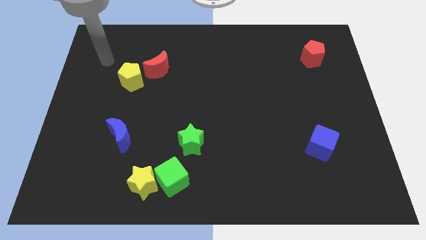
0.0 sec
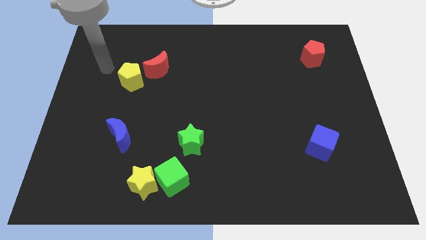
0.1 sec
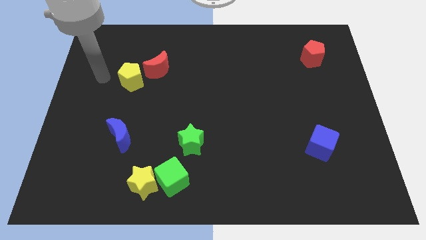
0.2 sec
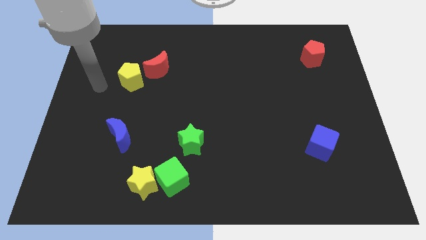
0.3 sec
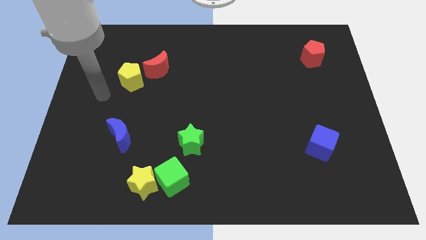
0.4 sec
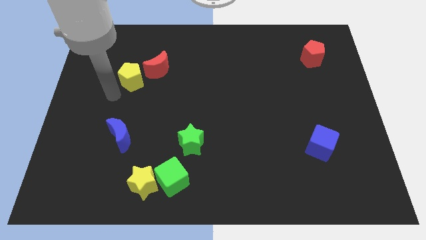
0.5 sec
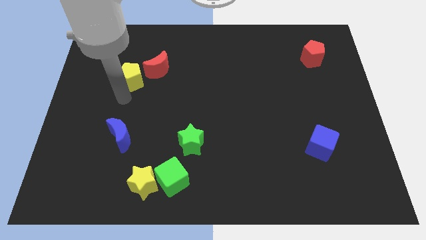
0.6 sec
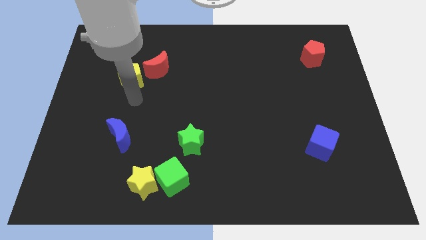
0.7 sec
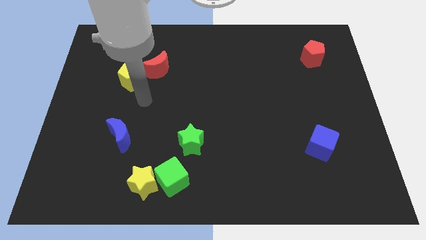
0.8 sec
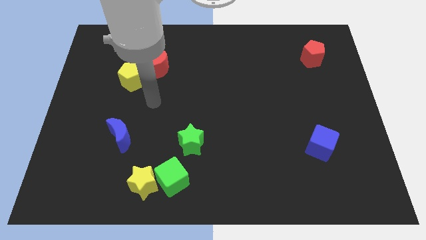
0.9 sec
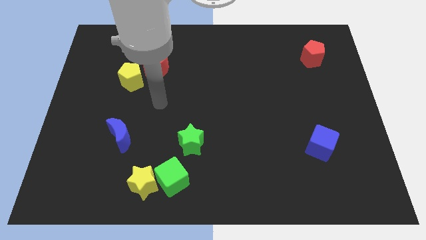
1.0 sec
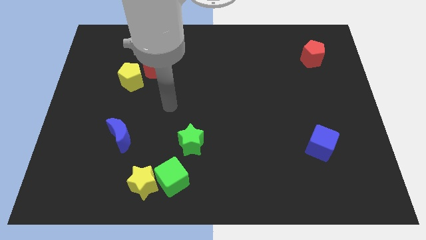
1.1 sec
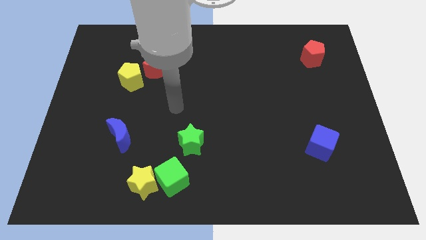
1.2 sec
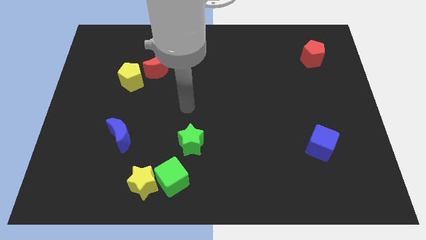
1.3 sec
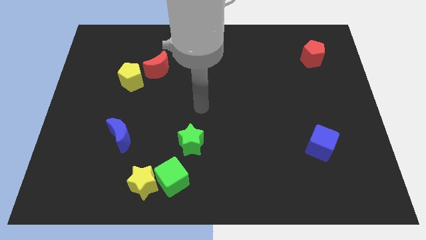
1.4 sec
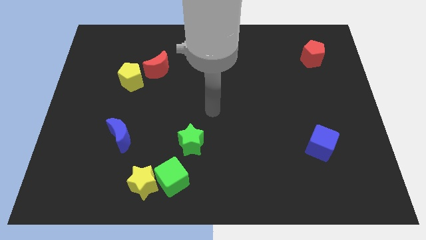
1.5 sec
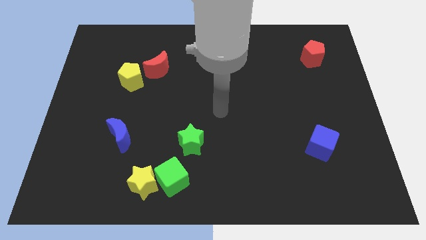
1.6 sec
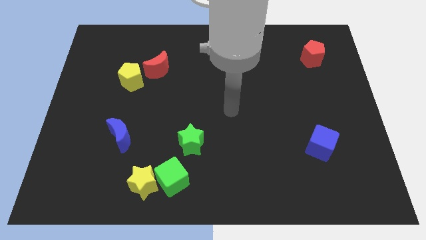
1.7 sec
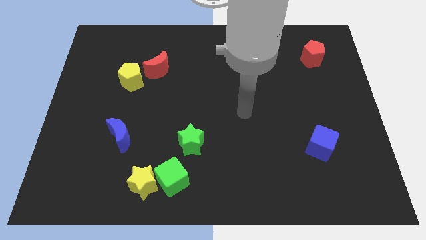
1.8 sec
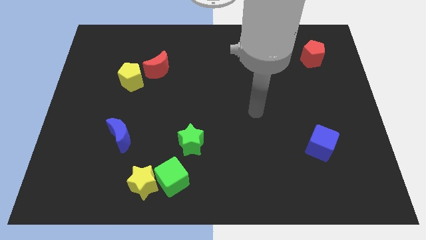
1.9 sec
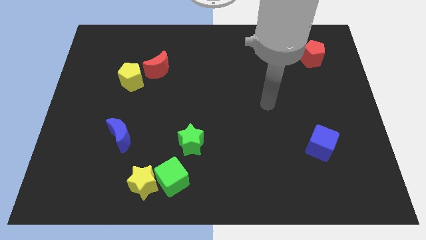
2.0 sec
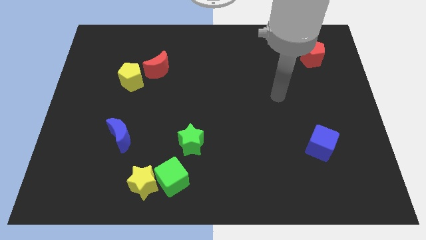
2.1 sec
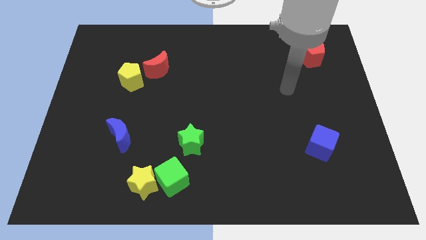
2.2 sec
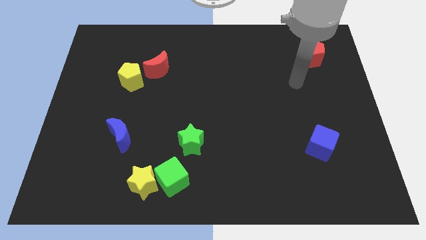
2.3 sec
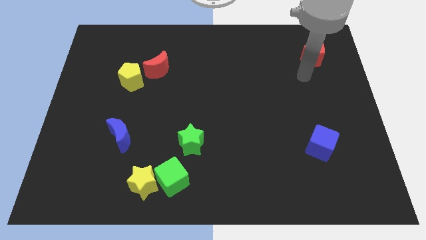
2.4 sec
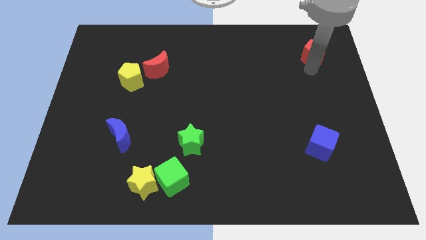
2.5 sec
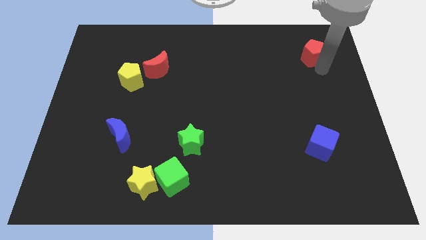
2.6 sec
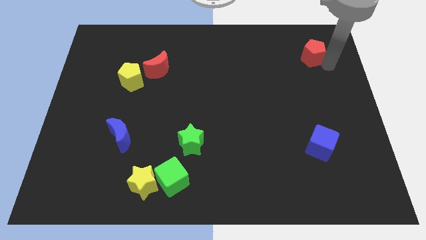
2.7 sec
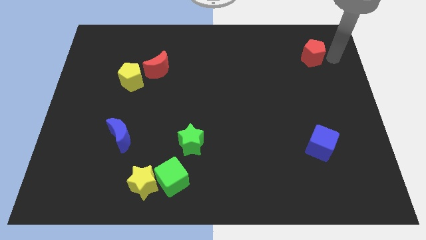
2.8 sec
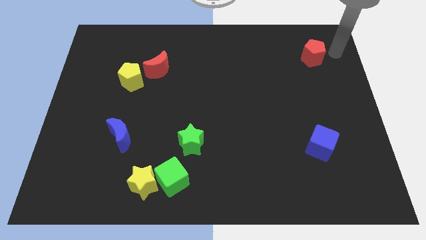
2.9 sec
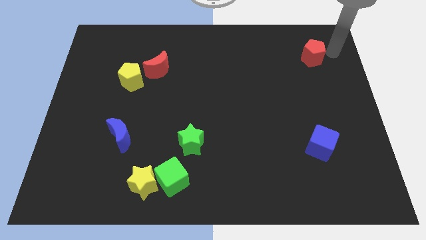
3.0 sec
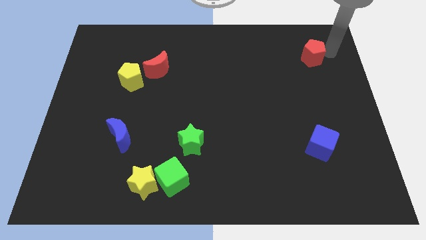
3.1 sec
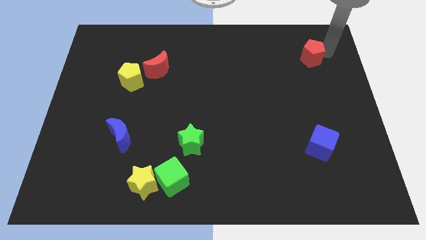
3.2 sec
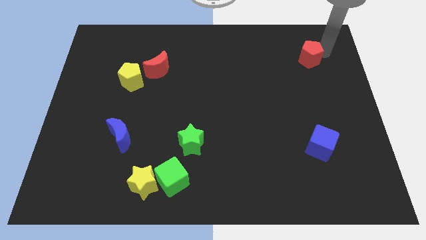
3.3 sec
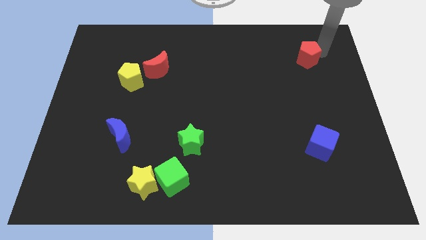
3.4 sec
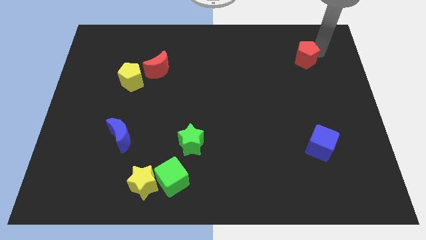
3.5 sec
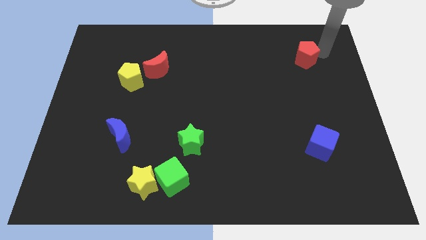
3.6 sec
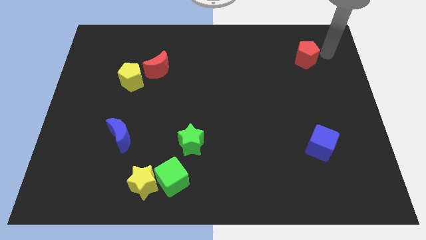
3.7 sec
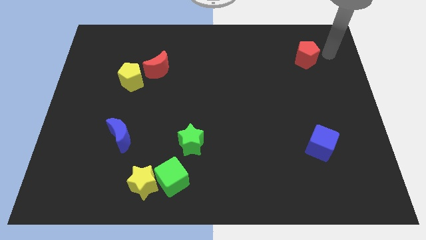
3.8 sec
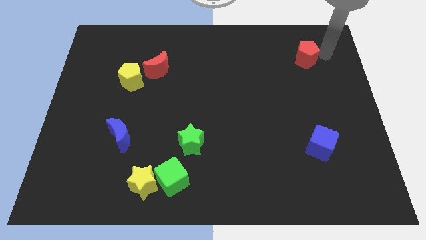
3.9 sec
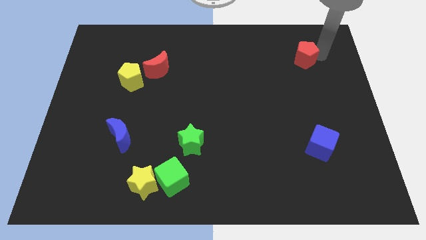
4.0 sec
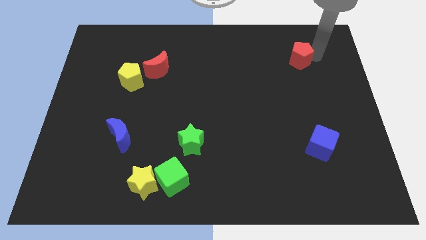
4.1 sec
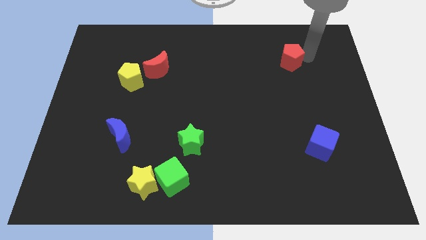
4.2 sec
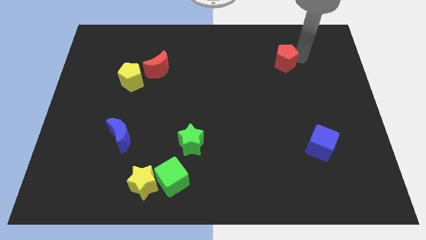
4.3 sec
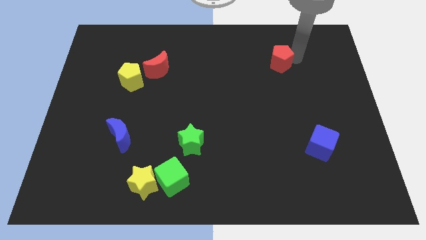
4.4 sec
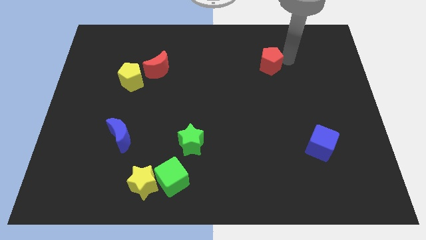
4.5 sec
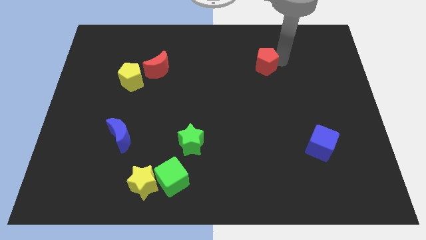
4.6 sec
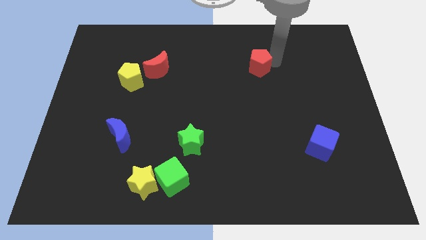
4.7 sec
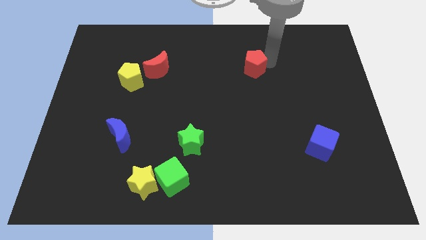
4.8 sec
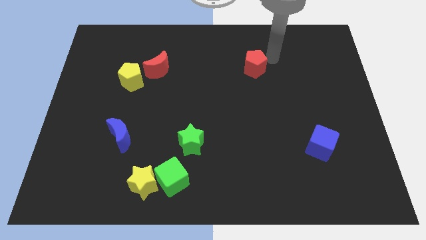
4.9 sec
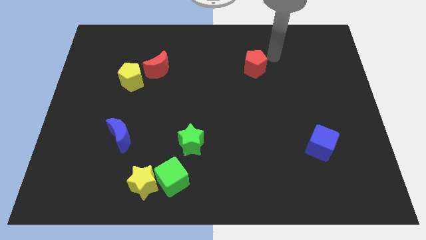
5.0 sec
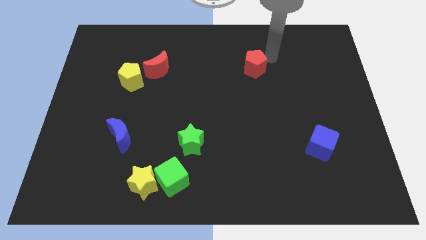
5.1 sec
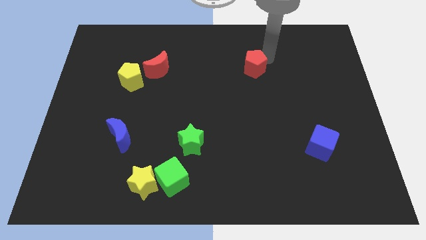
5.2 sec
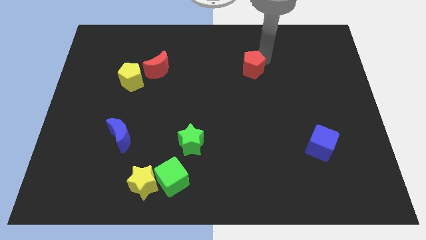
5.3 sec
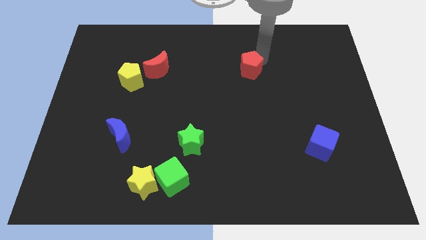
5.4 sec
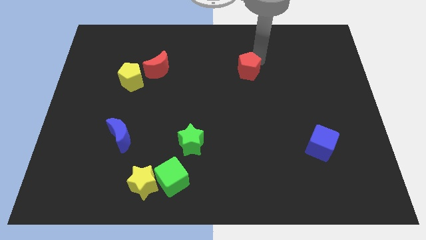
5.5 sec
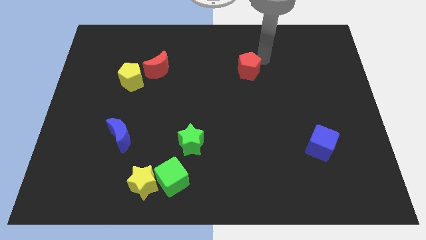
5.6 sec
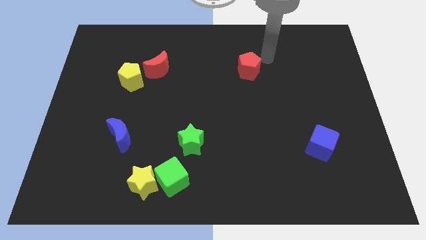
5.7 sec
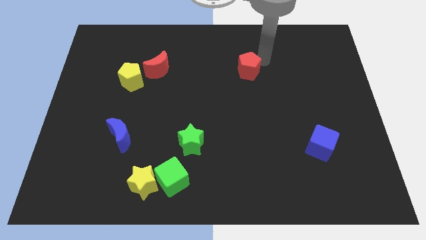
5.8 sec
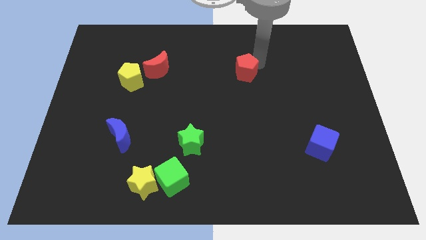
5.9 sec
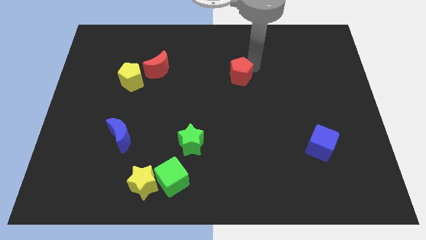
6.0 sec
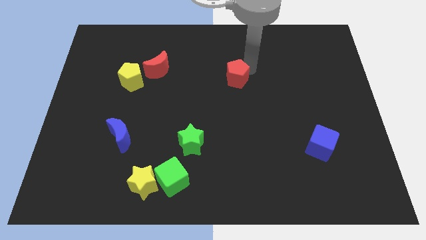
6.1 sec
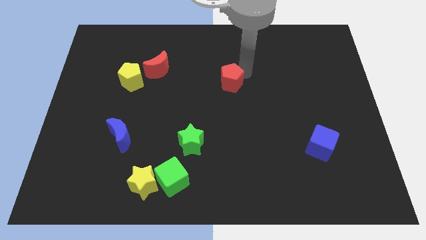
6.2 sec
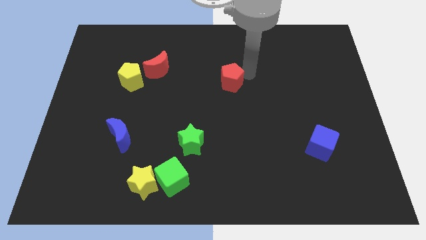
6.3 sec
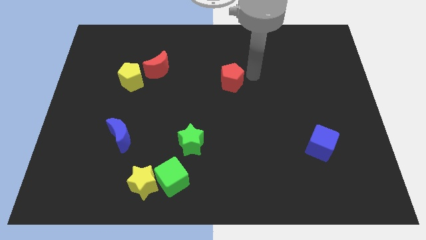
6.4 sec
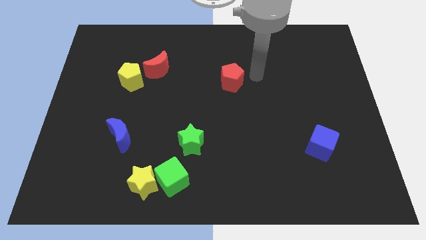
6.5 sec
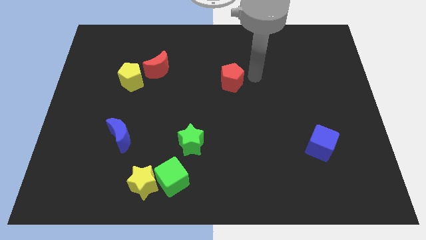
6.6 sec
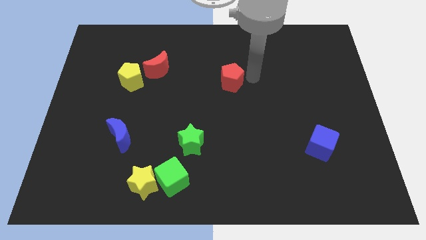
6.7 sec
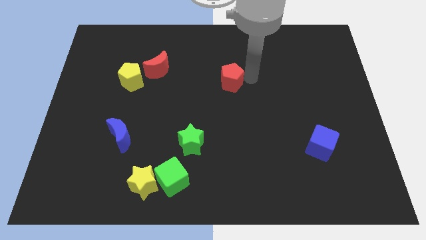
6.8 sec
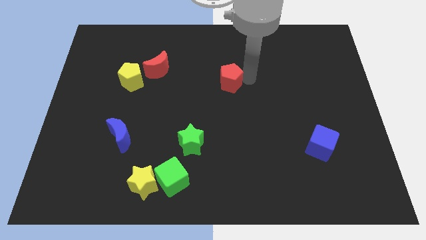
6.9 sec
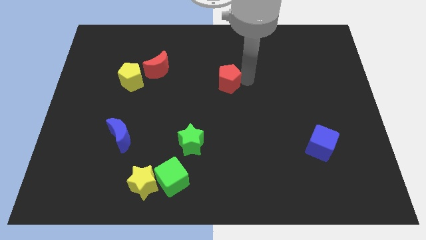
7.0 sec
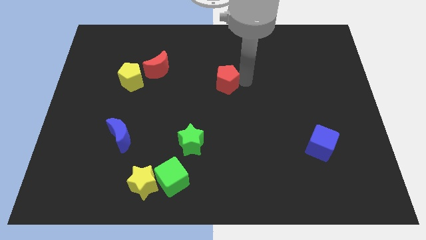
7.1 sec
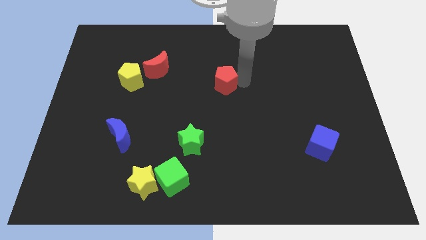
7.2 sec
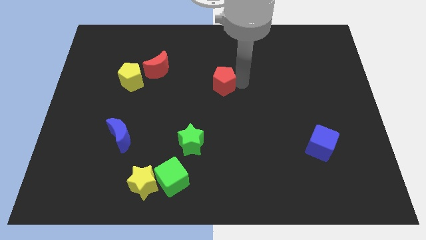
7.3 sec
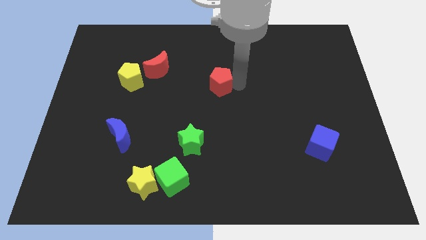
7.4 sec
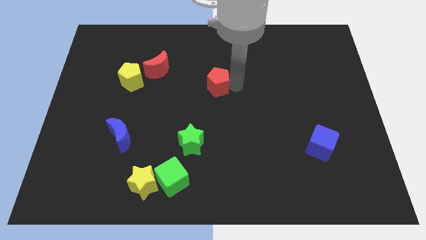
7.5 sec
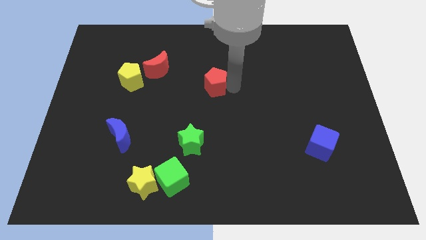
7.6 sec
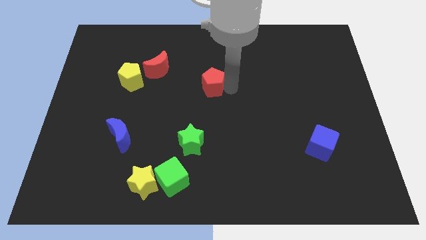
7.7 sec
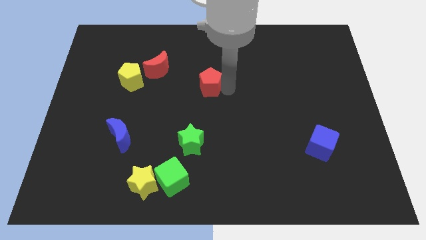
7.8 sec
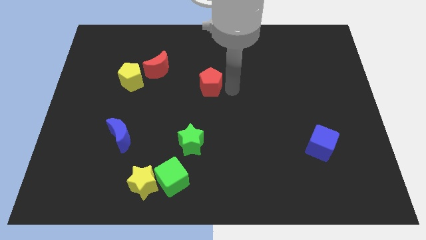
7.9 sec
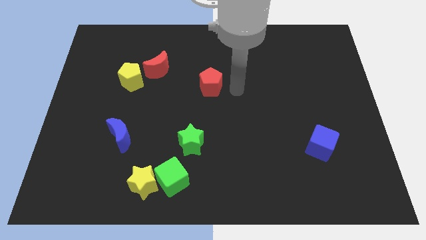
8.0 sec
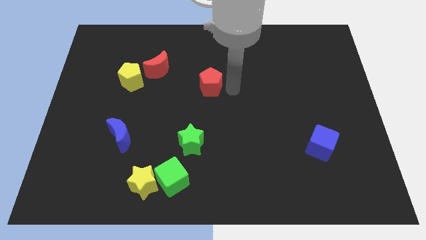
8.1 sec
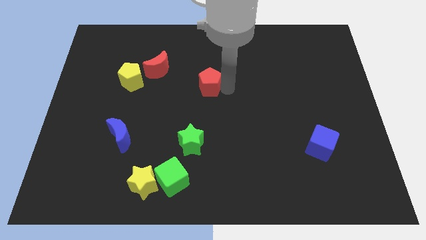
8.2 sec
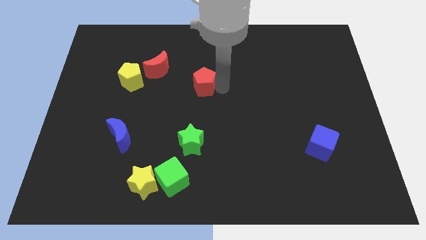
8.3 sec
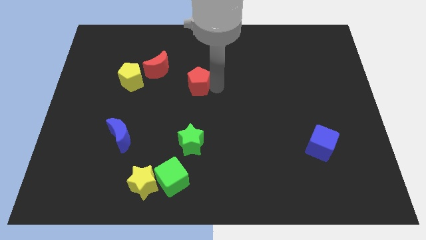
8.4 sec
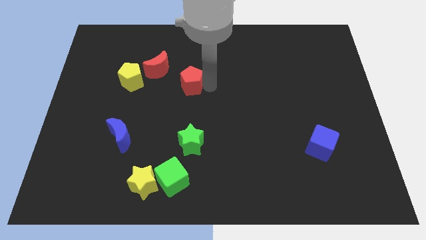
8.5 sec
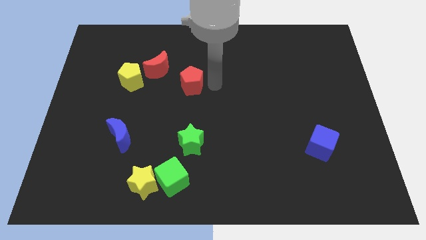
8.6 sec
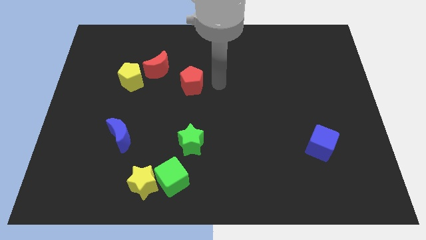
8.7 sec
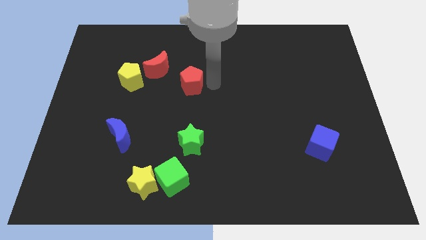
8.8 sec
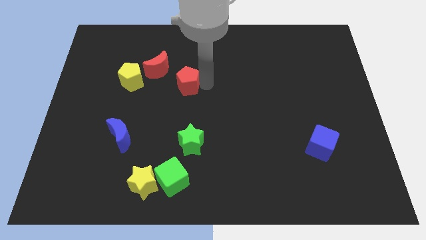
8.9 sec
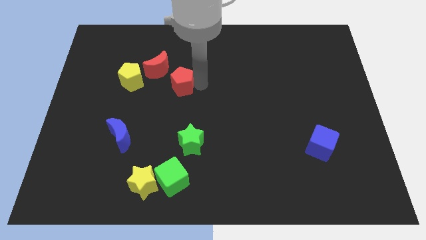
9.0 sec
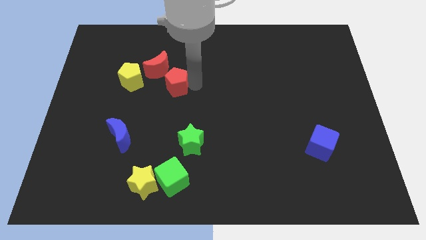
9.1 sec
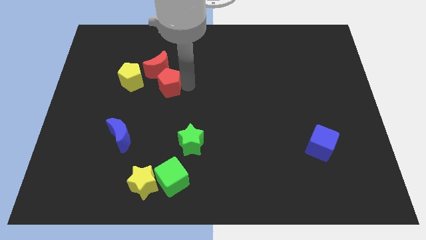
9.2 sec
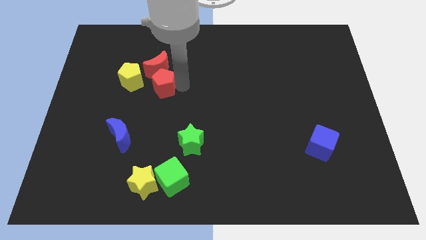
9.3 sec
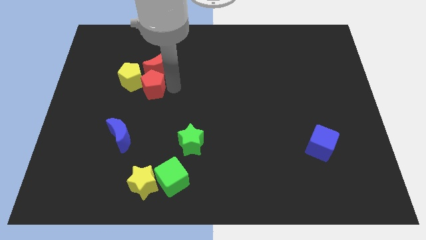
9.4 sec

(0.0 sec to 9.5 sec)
slide the red pentagon towards the yellow pentagon
